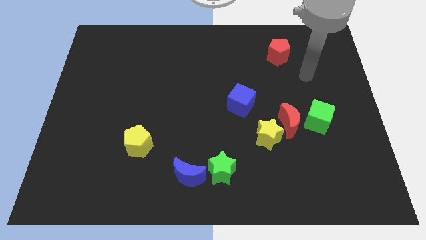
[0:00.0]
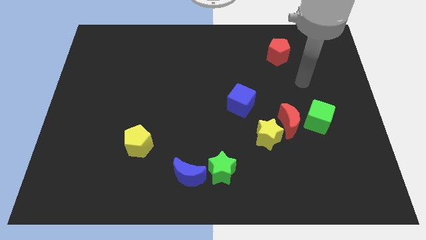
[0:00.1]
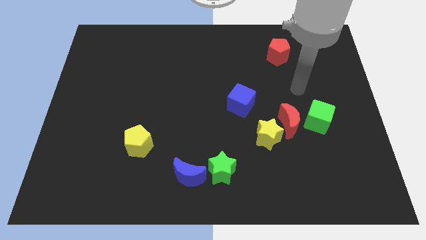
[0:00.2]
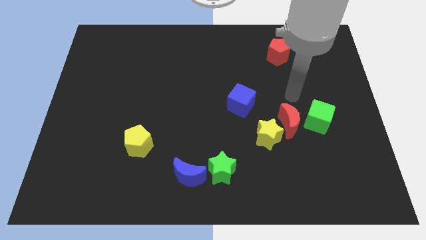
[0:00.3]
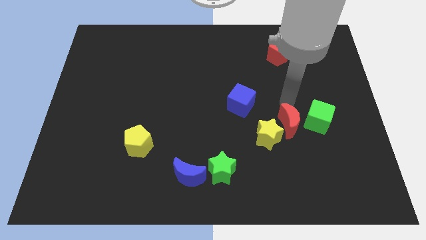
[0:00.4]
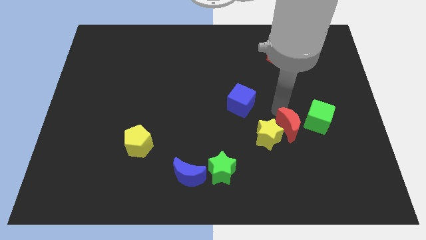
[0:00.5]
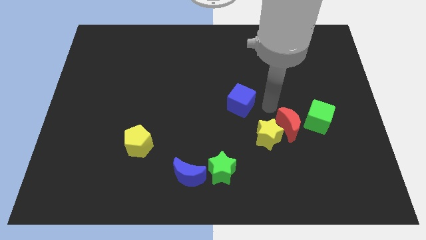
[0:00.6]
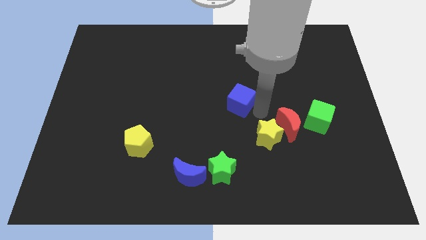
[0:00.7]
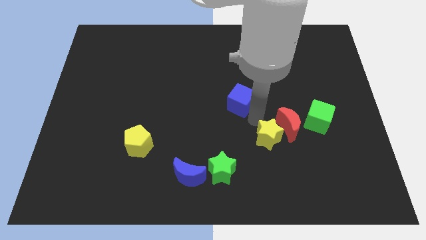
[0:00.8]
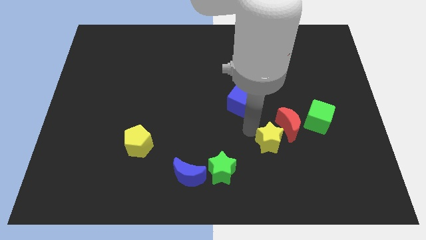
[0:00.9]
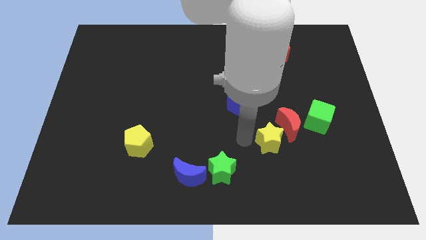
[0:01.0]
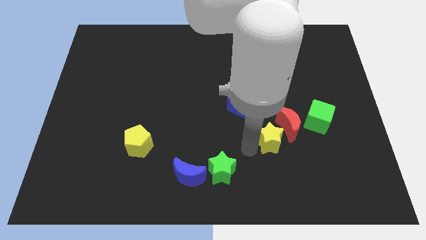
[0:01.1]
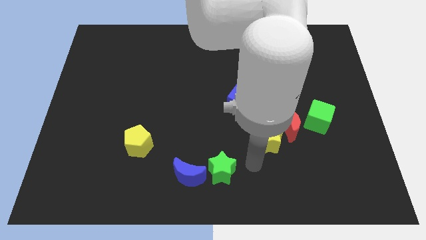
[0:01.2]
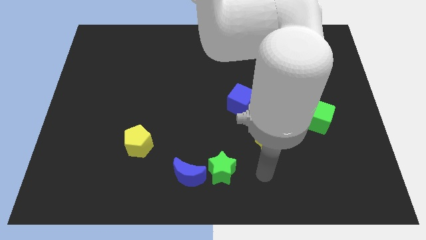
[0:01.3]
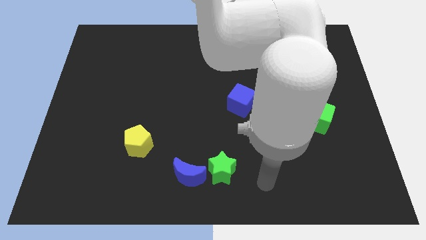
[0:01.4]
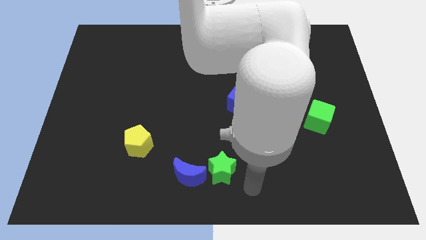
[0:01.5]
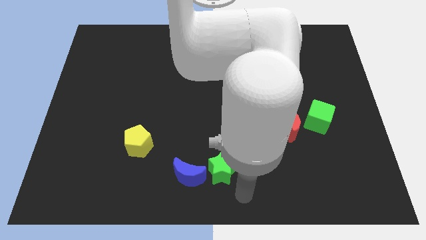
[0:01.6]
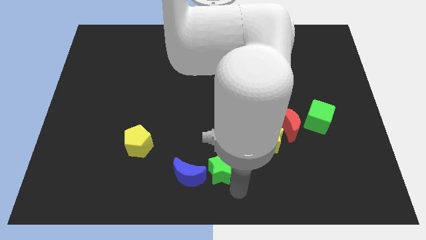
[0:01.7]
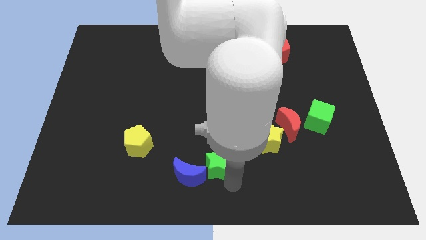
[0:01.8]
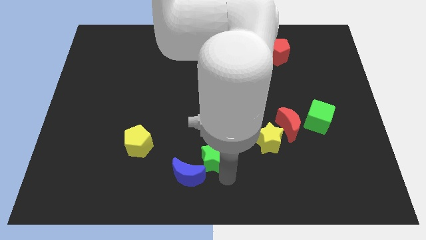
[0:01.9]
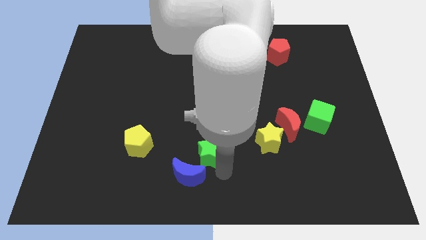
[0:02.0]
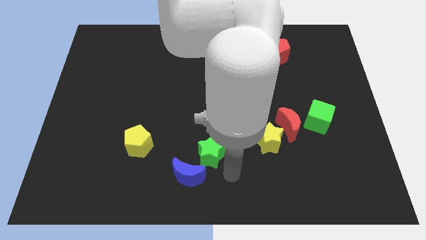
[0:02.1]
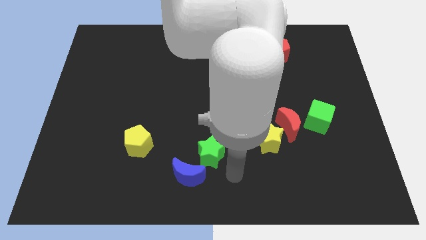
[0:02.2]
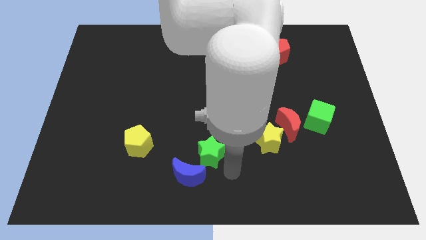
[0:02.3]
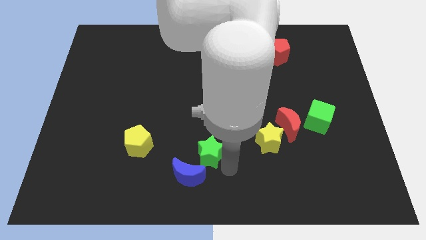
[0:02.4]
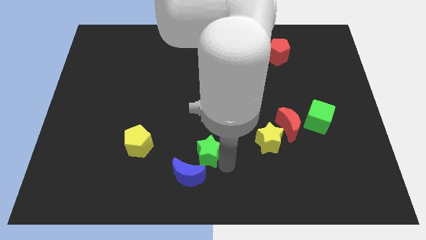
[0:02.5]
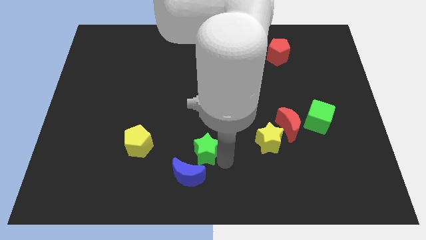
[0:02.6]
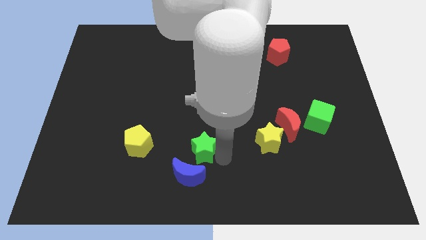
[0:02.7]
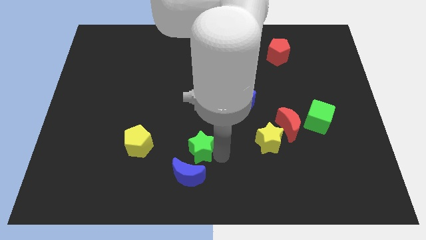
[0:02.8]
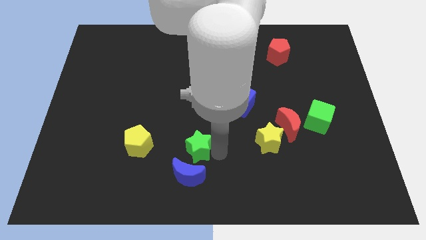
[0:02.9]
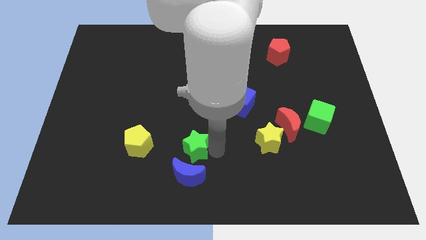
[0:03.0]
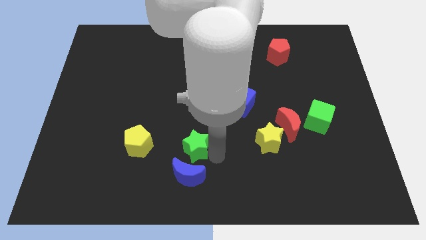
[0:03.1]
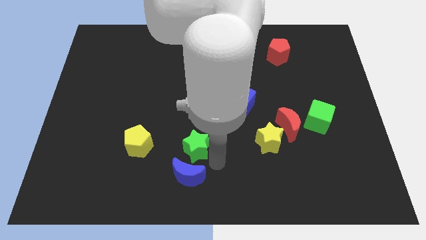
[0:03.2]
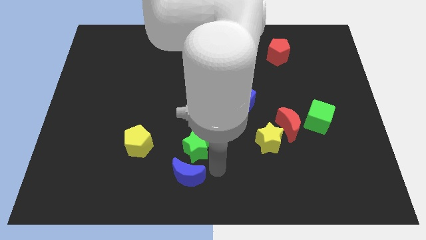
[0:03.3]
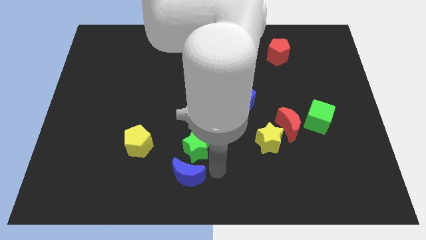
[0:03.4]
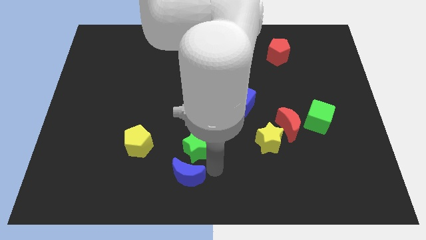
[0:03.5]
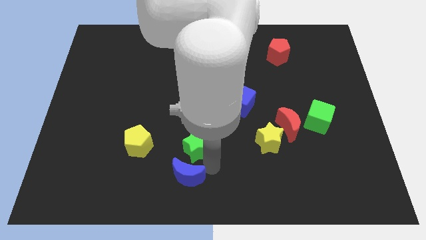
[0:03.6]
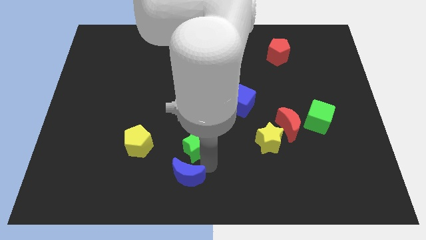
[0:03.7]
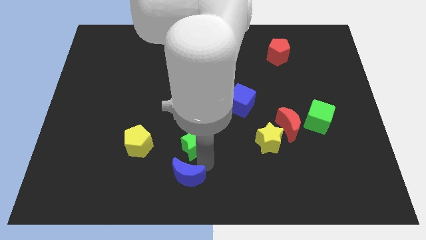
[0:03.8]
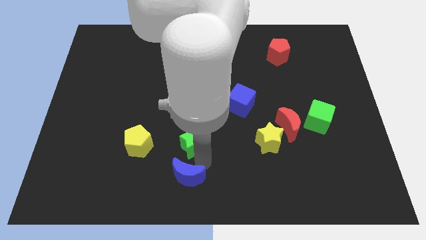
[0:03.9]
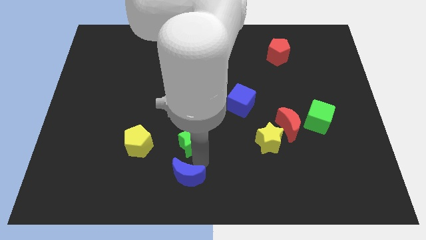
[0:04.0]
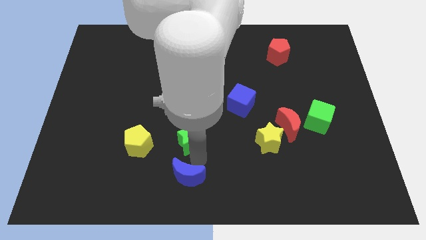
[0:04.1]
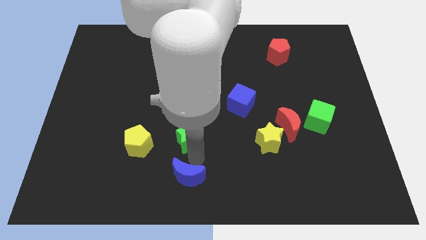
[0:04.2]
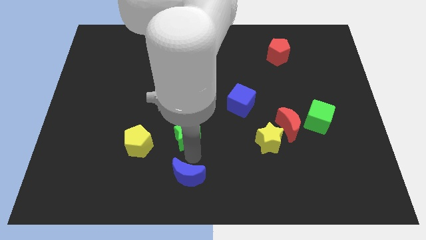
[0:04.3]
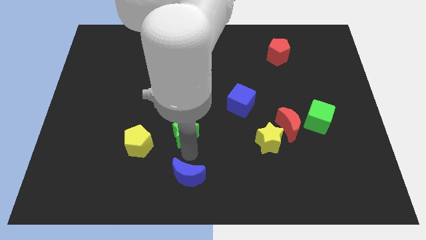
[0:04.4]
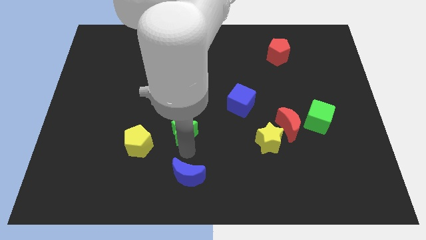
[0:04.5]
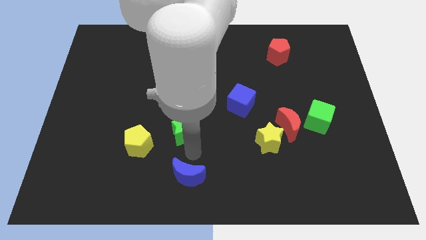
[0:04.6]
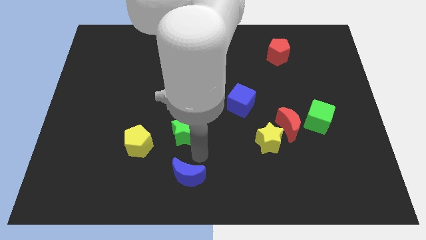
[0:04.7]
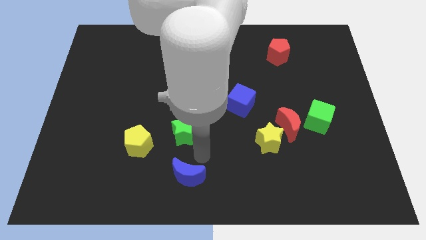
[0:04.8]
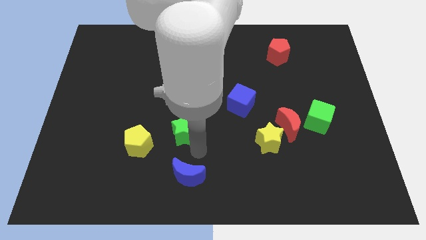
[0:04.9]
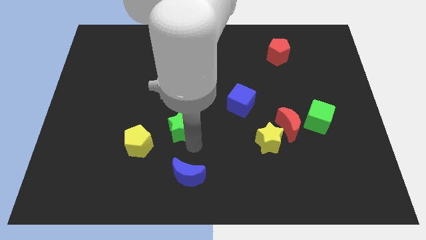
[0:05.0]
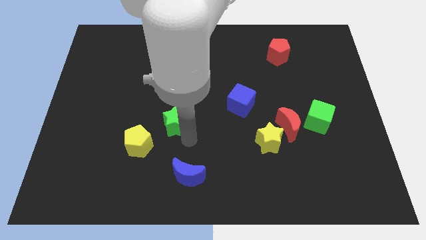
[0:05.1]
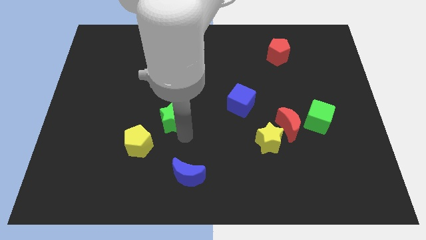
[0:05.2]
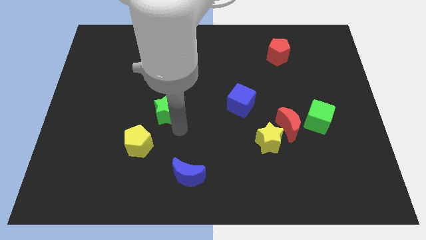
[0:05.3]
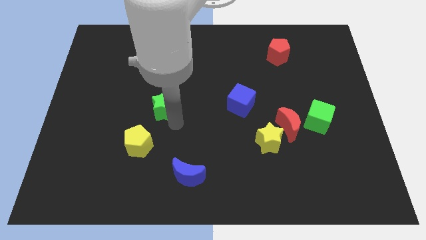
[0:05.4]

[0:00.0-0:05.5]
slide the green star up and to the left

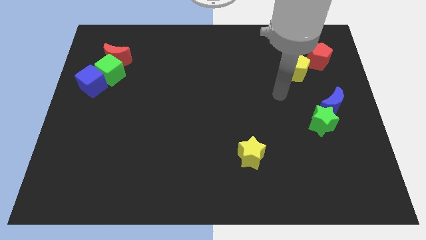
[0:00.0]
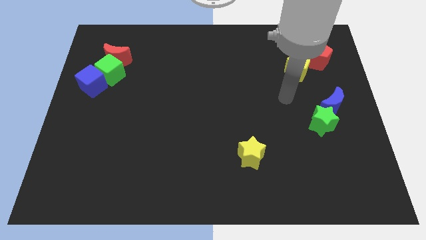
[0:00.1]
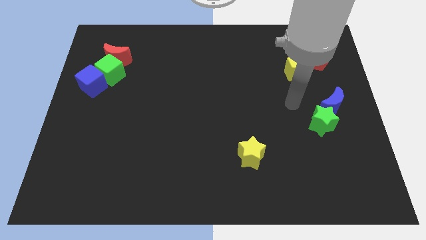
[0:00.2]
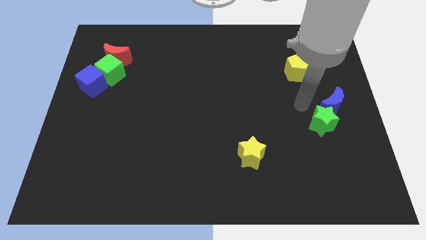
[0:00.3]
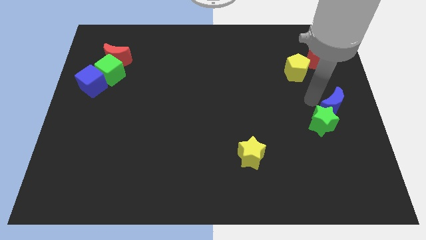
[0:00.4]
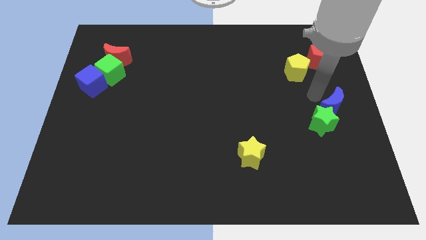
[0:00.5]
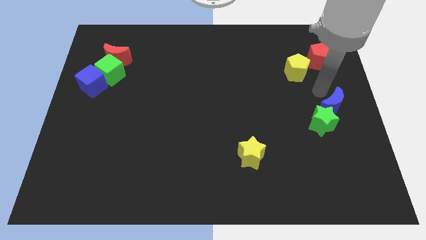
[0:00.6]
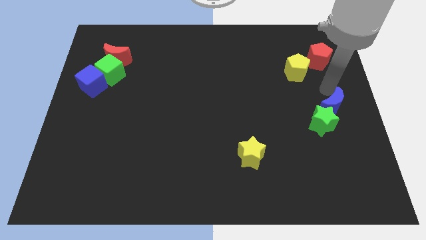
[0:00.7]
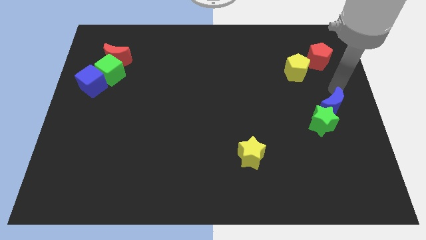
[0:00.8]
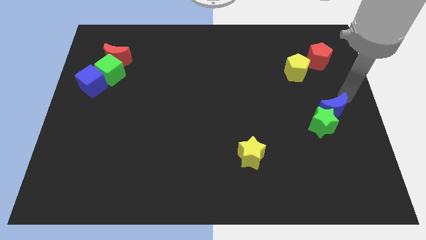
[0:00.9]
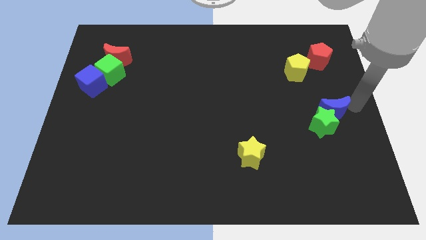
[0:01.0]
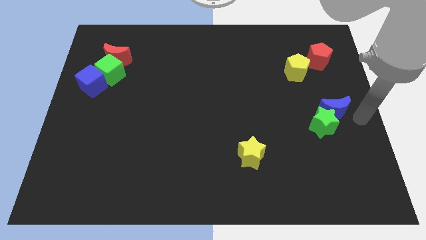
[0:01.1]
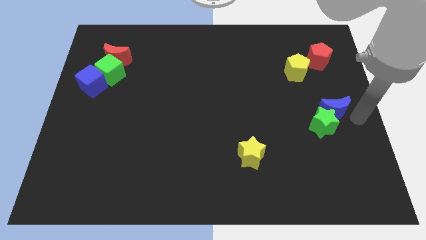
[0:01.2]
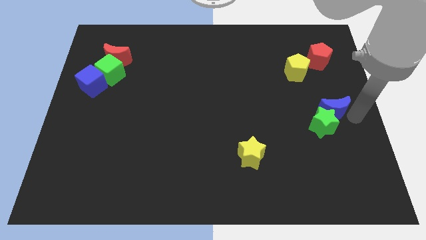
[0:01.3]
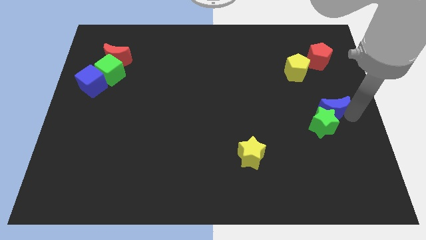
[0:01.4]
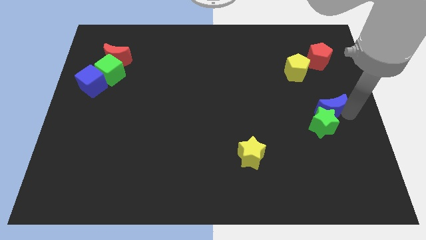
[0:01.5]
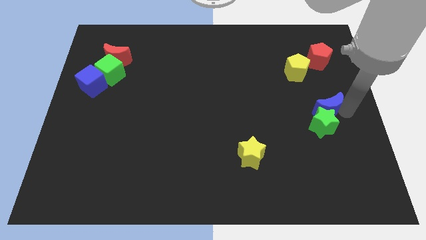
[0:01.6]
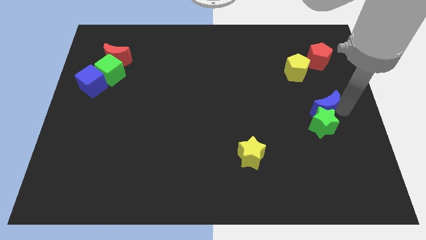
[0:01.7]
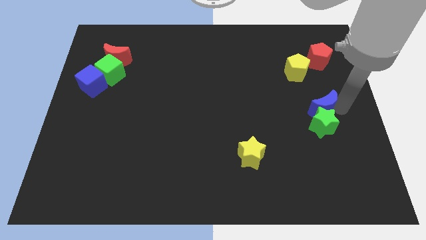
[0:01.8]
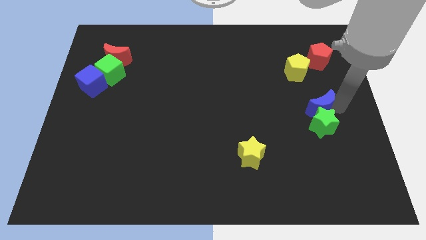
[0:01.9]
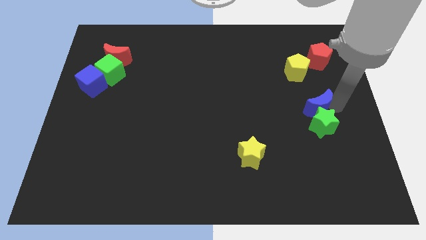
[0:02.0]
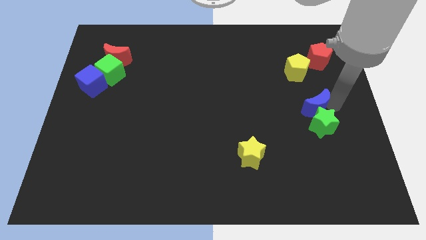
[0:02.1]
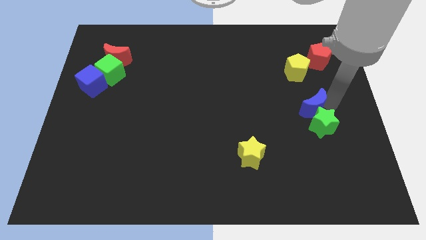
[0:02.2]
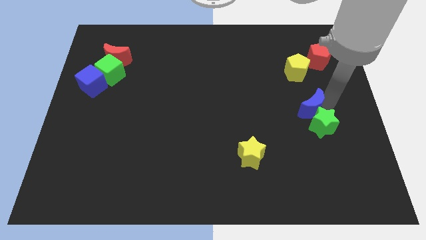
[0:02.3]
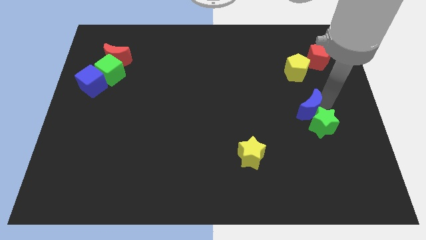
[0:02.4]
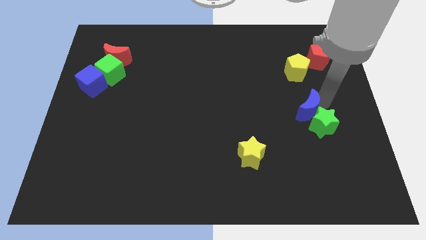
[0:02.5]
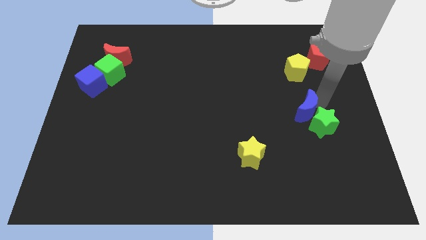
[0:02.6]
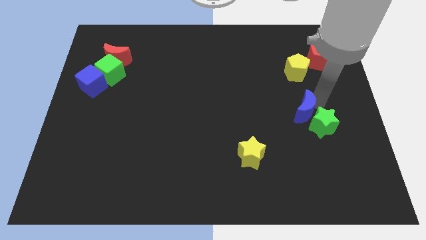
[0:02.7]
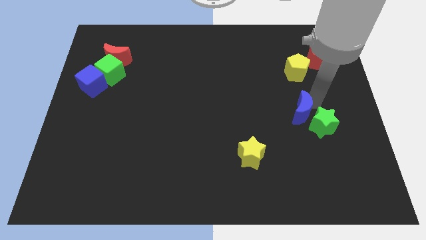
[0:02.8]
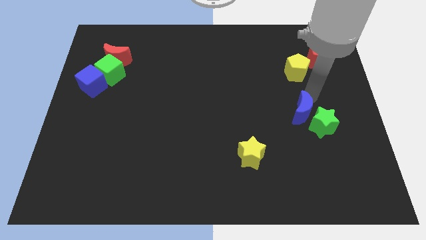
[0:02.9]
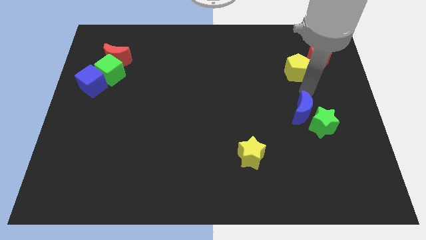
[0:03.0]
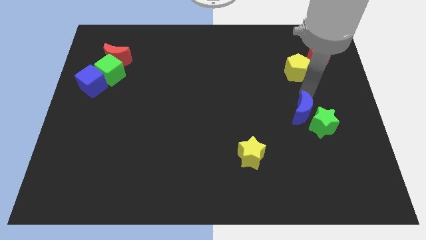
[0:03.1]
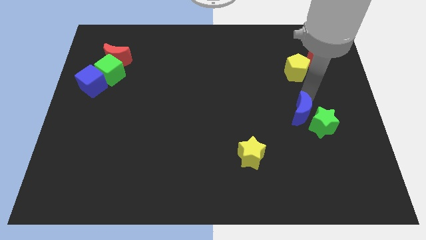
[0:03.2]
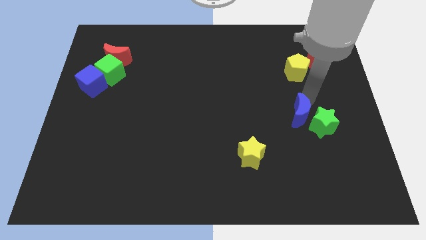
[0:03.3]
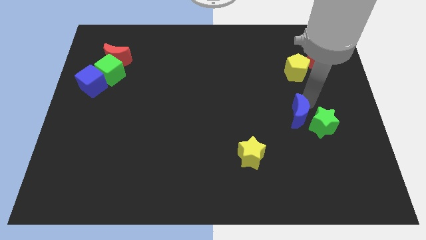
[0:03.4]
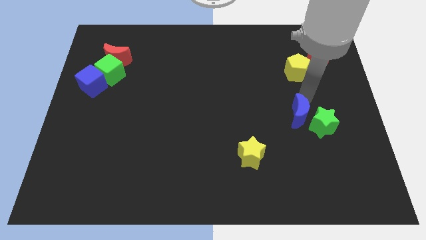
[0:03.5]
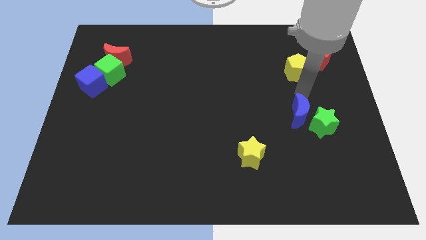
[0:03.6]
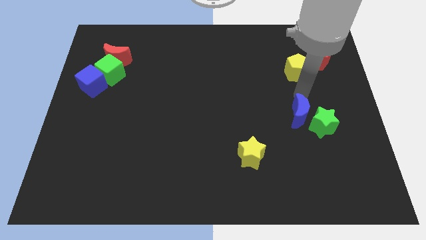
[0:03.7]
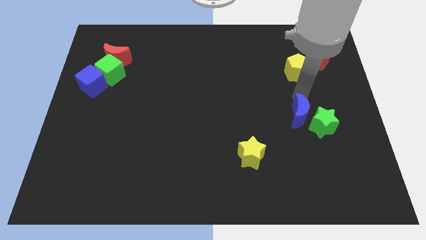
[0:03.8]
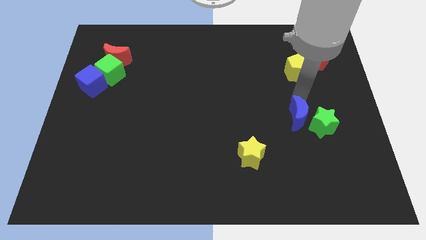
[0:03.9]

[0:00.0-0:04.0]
move the blue moon down and to the left a little
